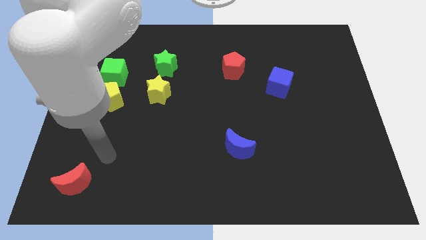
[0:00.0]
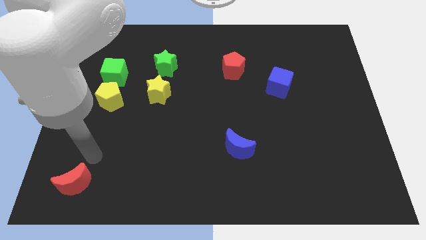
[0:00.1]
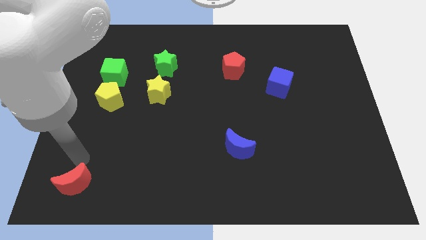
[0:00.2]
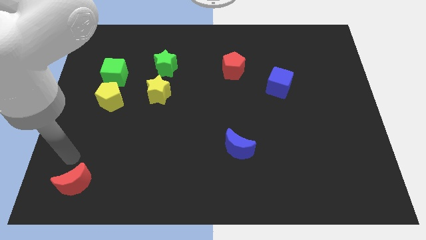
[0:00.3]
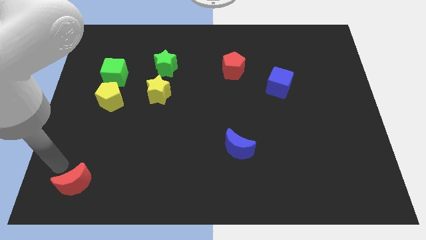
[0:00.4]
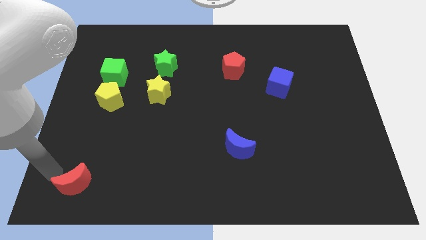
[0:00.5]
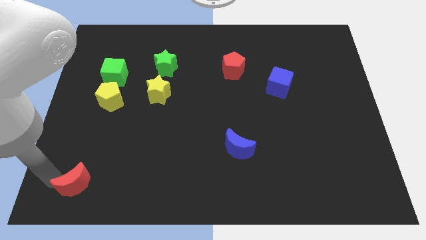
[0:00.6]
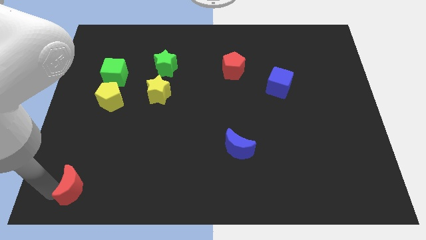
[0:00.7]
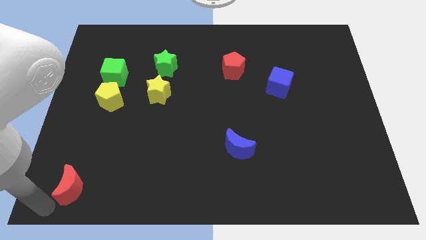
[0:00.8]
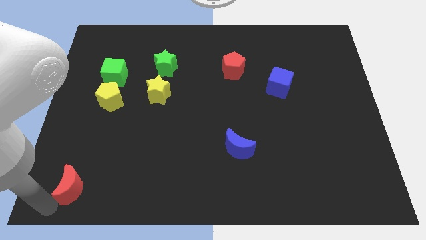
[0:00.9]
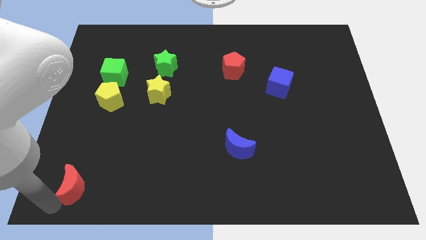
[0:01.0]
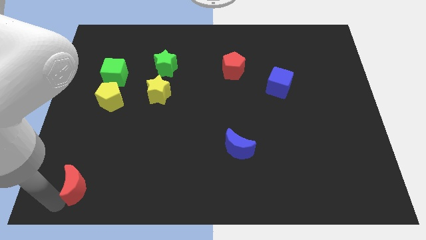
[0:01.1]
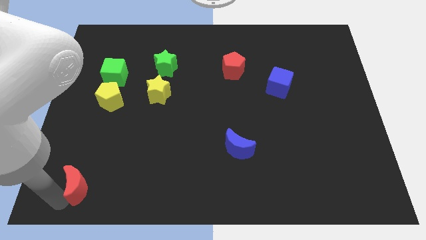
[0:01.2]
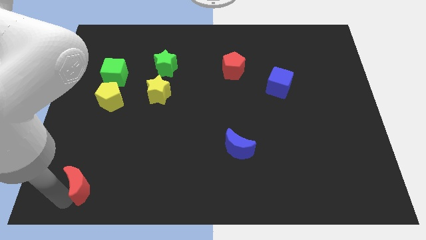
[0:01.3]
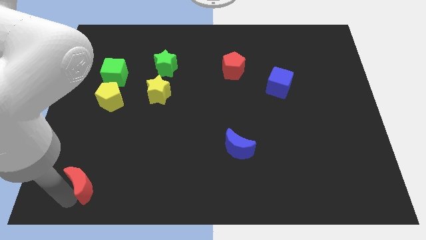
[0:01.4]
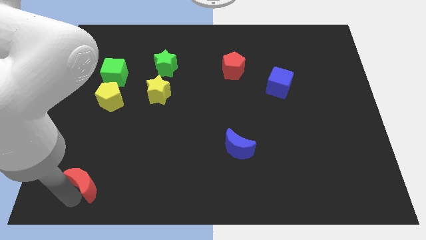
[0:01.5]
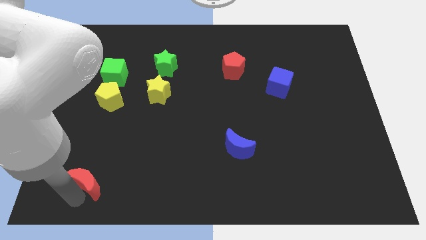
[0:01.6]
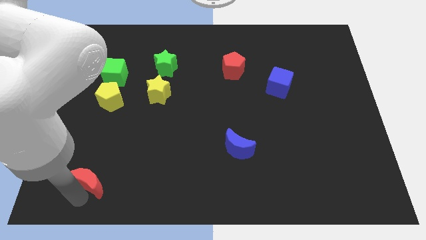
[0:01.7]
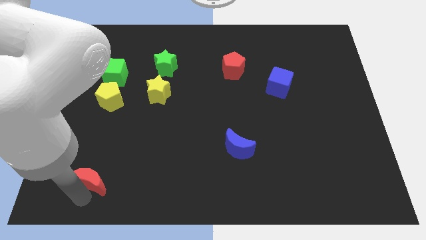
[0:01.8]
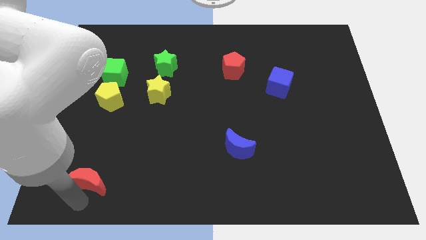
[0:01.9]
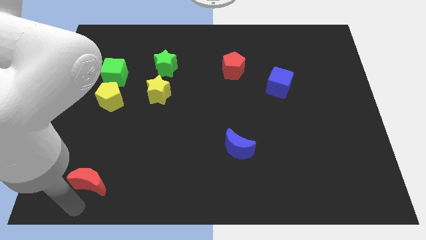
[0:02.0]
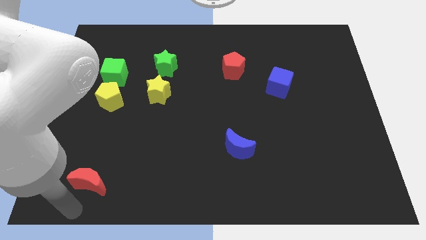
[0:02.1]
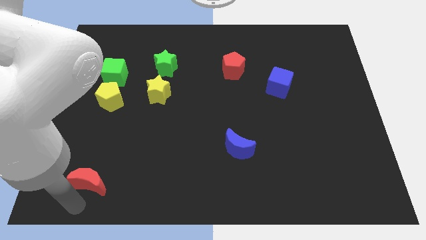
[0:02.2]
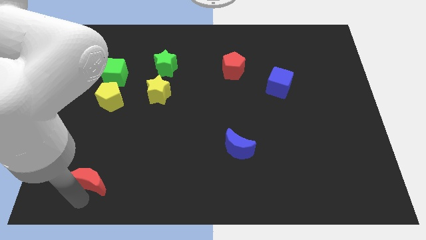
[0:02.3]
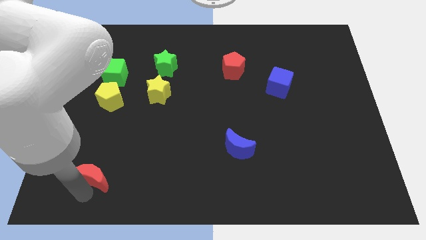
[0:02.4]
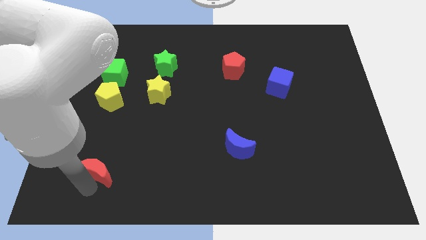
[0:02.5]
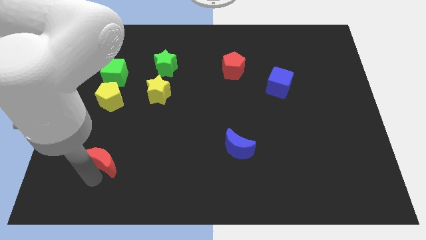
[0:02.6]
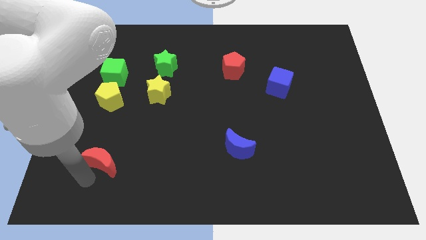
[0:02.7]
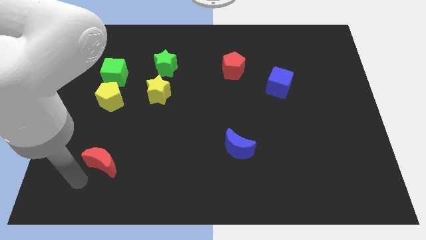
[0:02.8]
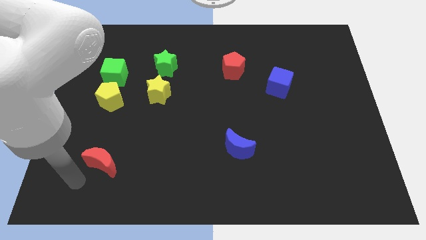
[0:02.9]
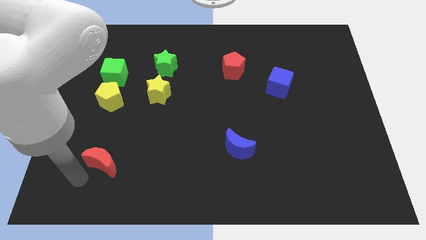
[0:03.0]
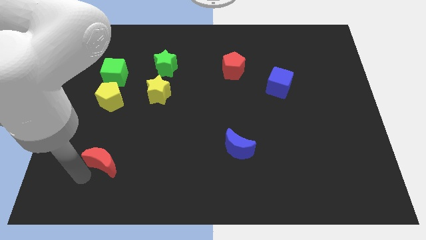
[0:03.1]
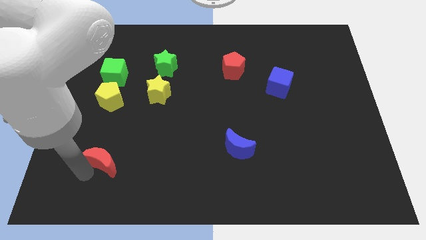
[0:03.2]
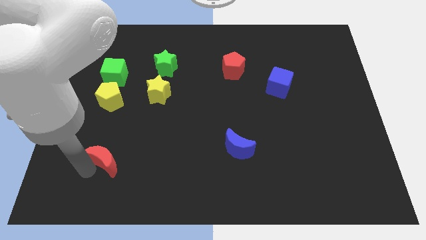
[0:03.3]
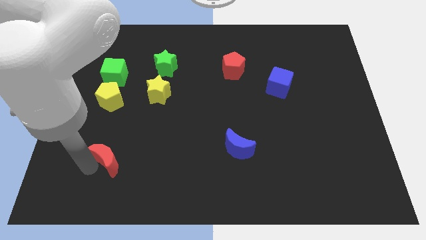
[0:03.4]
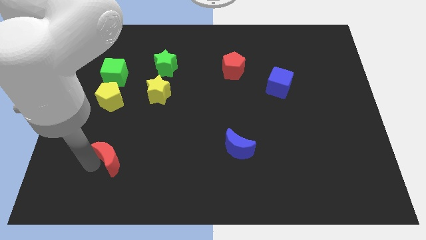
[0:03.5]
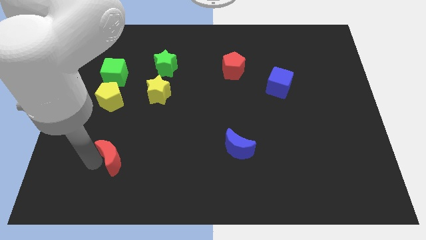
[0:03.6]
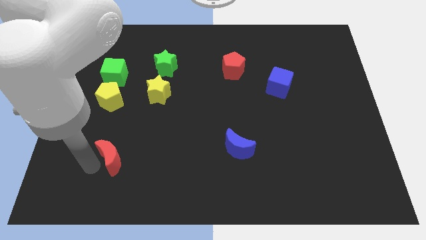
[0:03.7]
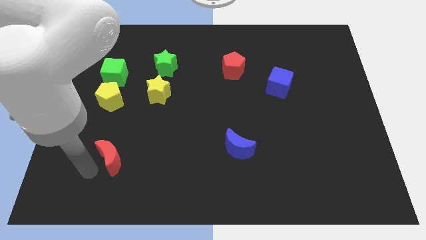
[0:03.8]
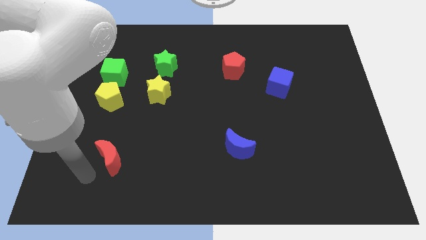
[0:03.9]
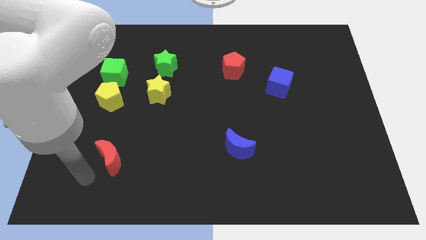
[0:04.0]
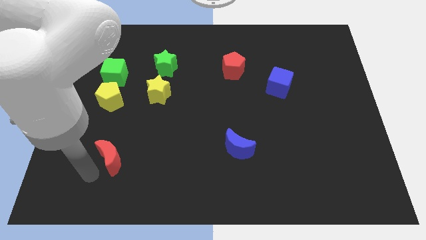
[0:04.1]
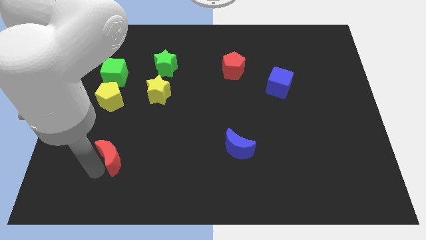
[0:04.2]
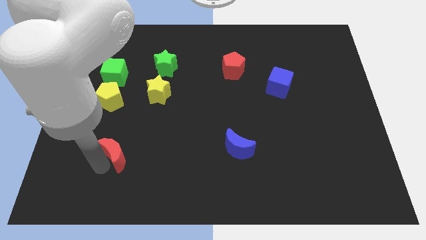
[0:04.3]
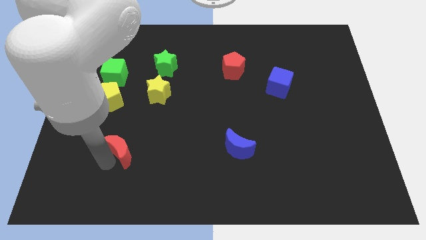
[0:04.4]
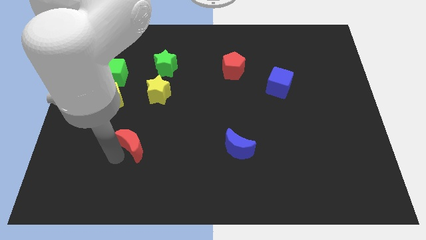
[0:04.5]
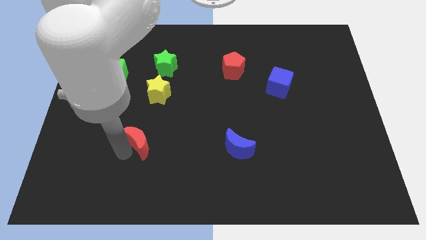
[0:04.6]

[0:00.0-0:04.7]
move the red moon below the yellow star

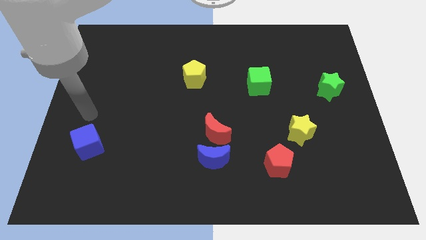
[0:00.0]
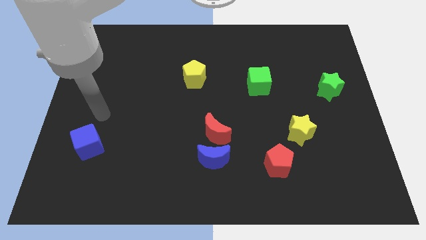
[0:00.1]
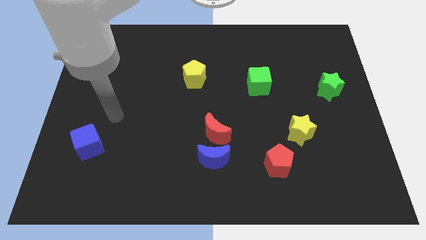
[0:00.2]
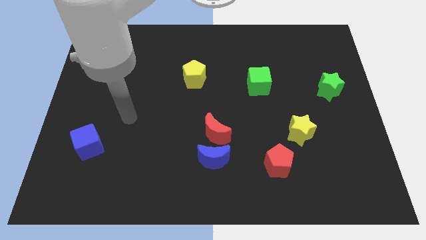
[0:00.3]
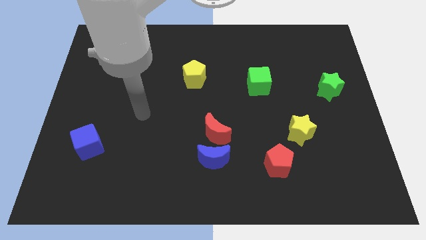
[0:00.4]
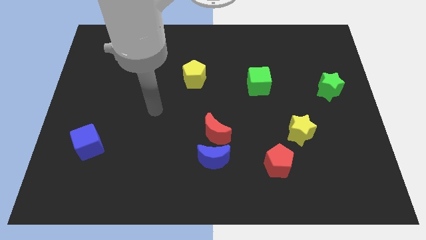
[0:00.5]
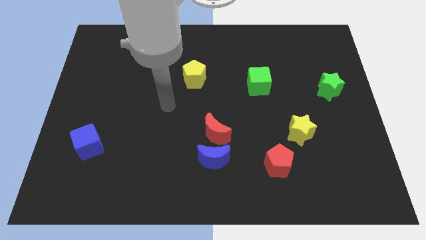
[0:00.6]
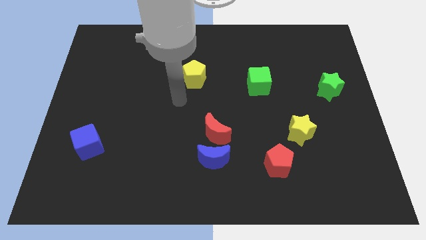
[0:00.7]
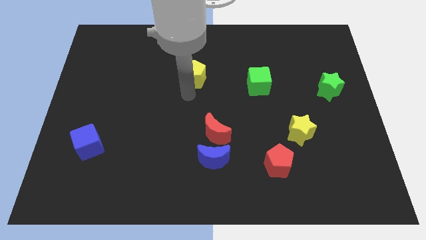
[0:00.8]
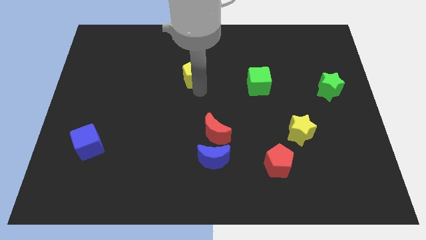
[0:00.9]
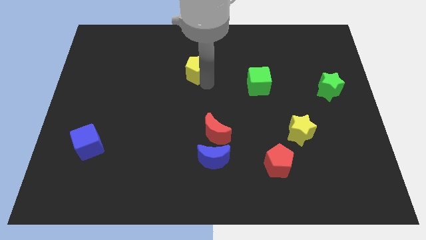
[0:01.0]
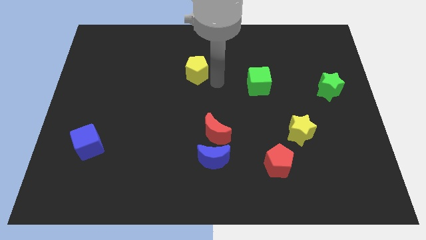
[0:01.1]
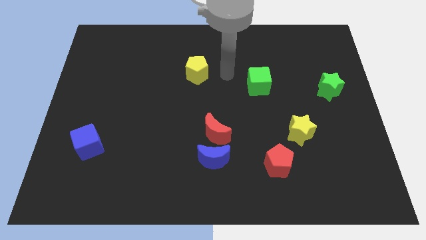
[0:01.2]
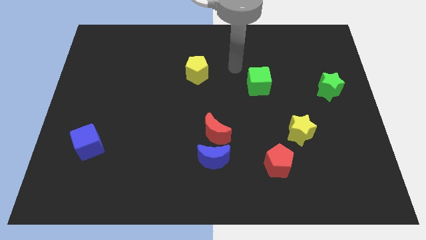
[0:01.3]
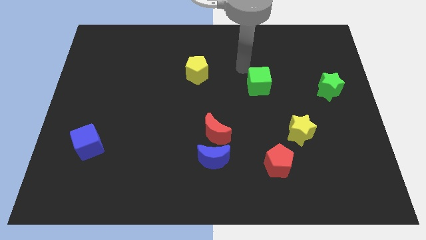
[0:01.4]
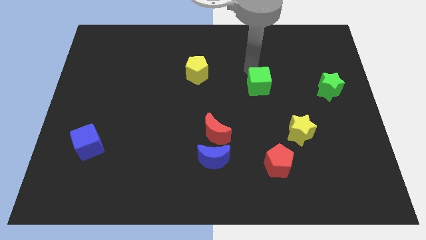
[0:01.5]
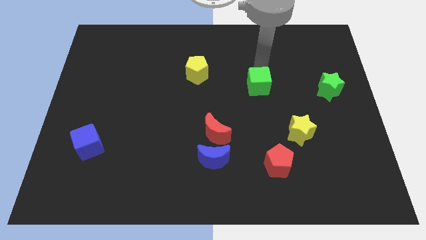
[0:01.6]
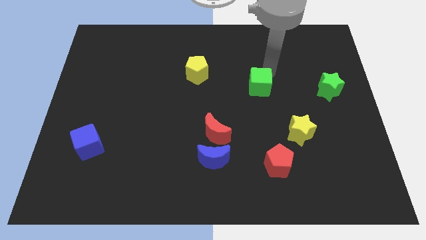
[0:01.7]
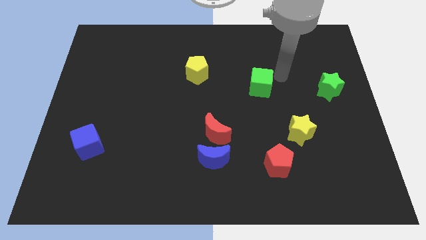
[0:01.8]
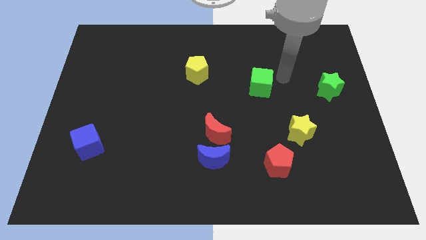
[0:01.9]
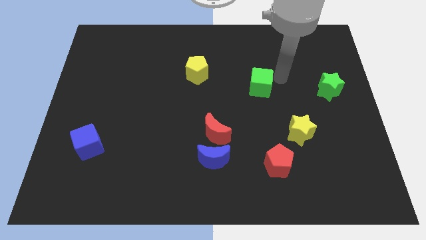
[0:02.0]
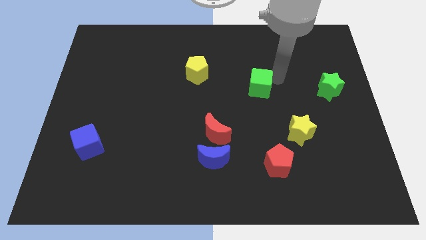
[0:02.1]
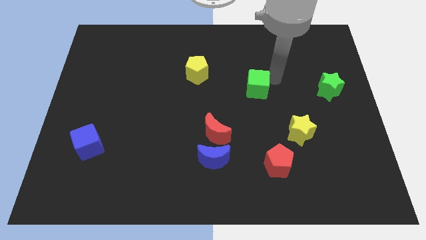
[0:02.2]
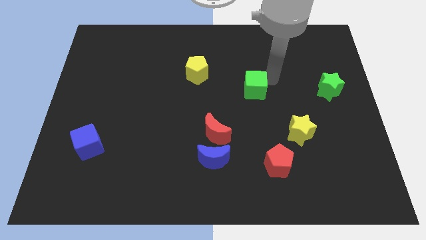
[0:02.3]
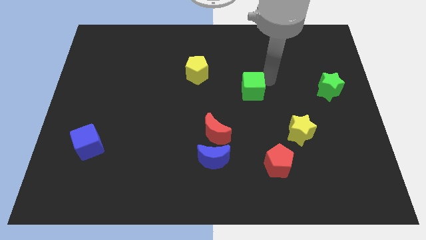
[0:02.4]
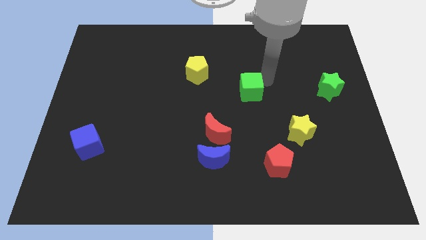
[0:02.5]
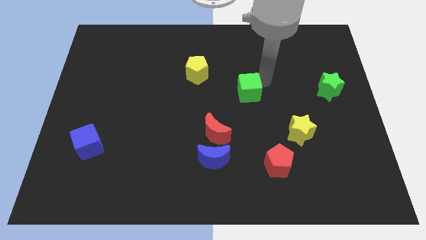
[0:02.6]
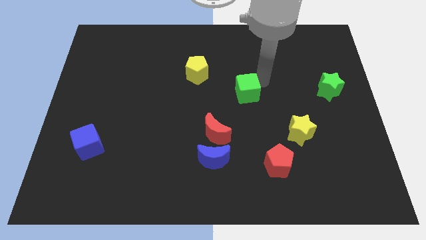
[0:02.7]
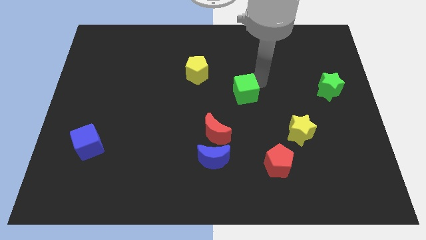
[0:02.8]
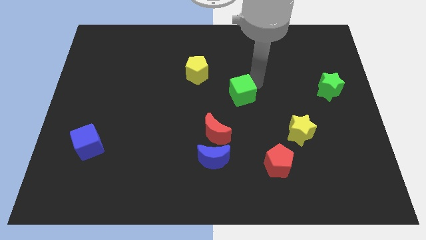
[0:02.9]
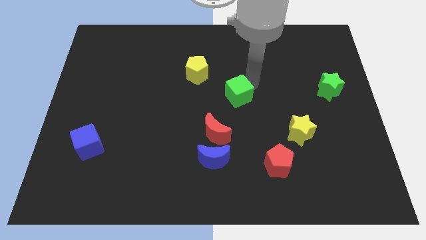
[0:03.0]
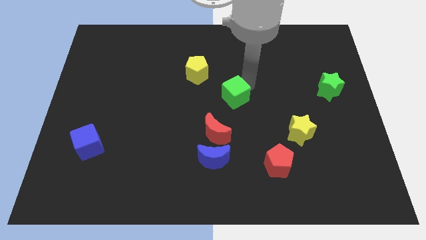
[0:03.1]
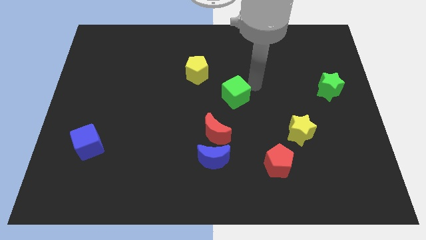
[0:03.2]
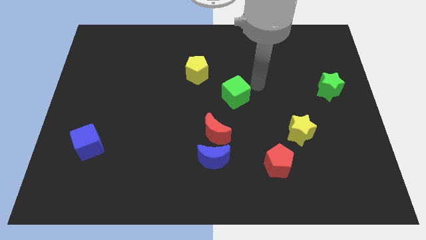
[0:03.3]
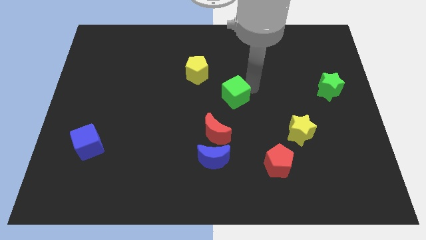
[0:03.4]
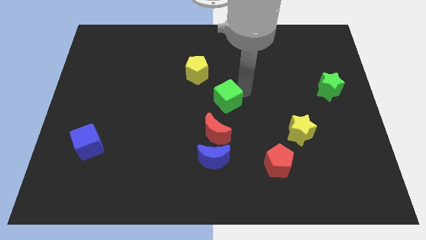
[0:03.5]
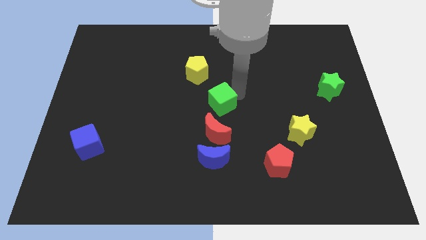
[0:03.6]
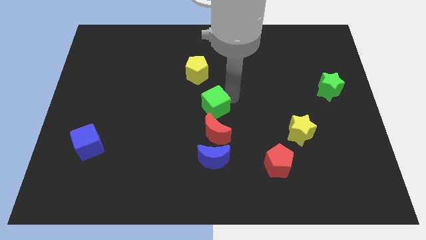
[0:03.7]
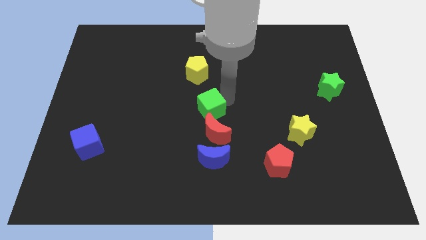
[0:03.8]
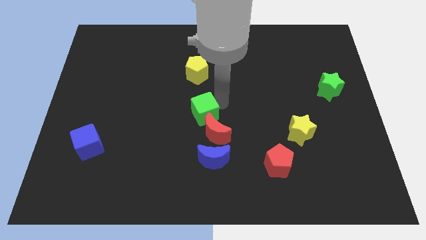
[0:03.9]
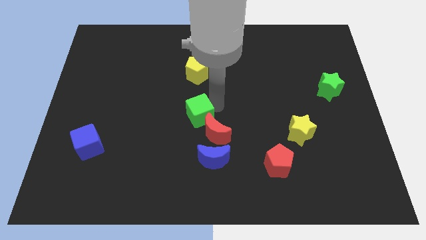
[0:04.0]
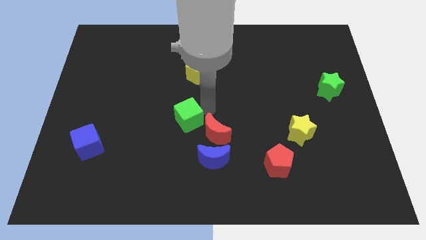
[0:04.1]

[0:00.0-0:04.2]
move the green cube to the left side of the red moon
